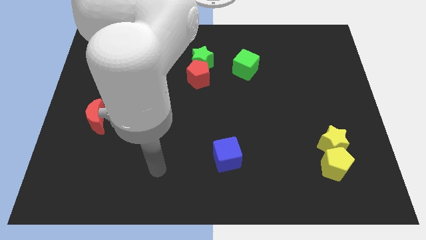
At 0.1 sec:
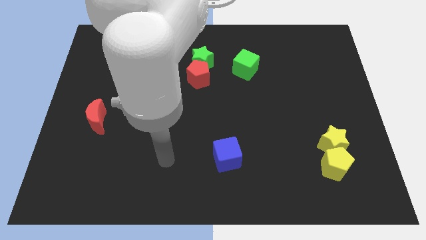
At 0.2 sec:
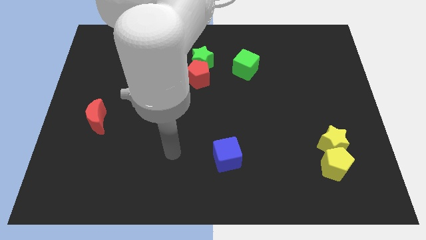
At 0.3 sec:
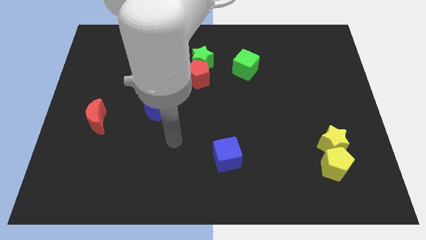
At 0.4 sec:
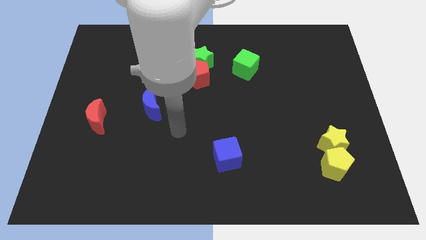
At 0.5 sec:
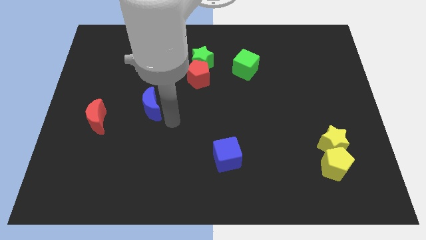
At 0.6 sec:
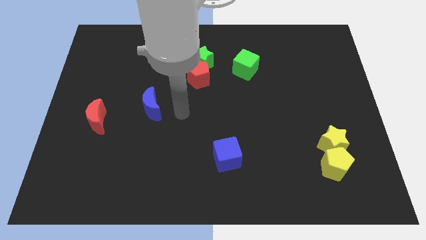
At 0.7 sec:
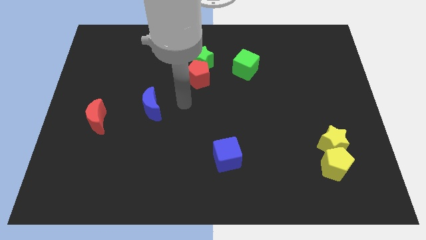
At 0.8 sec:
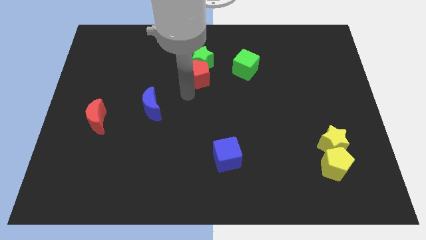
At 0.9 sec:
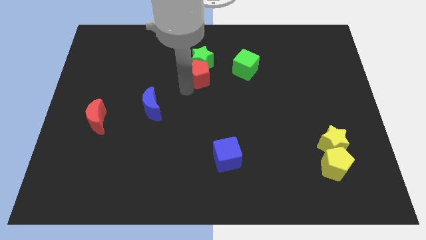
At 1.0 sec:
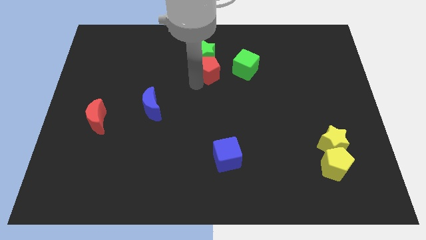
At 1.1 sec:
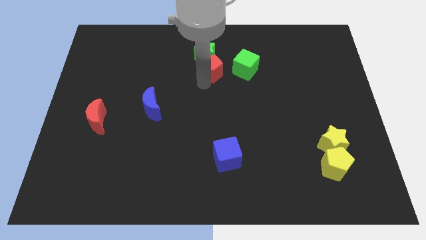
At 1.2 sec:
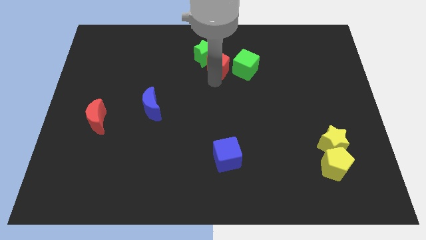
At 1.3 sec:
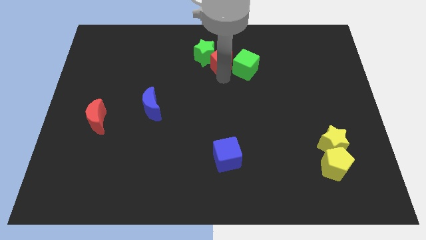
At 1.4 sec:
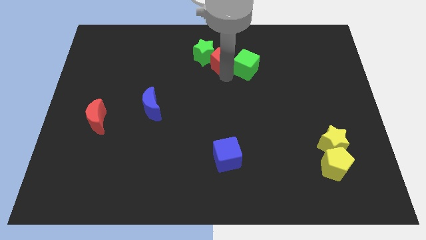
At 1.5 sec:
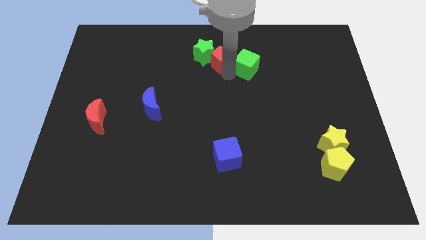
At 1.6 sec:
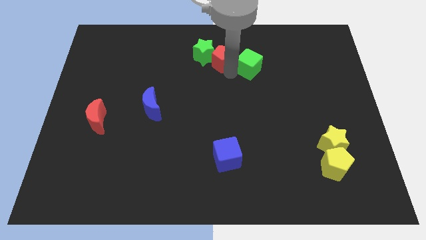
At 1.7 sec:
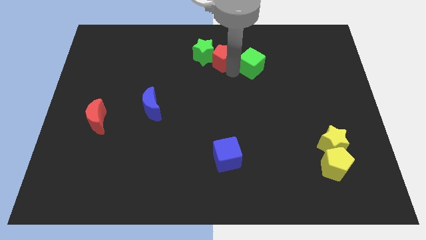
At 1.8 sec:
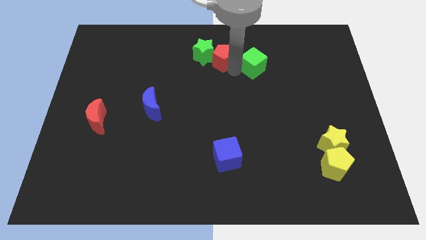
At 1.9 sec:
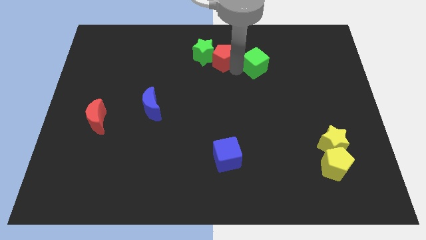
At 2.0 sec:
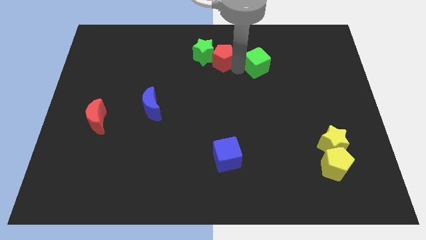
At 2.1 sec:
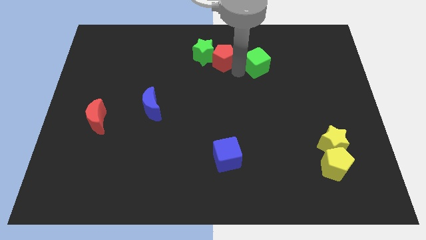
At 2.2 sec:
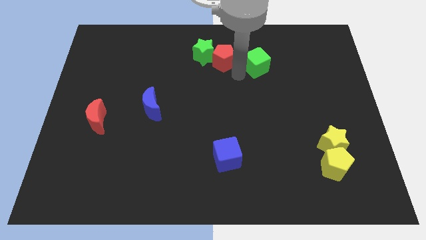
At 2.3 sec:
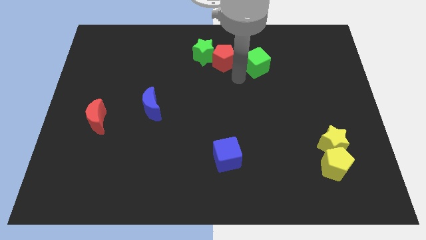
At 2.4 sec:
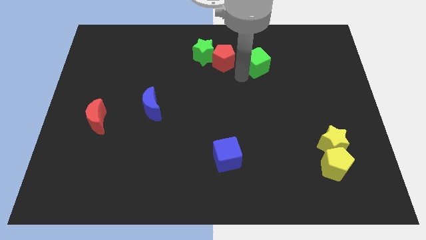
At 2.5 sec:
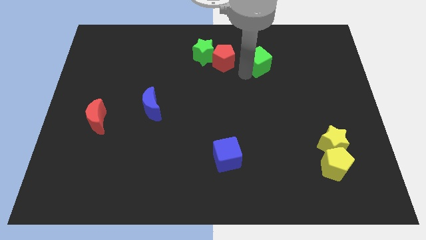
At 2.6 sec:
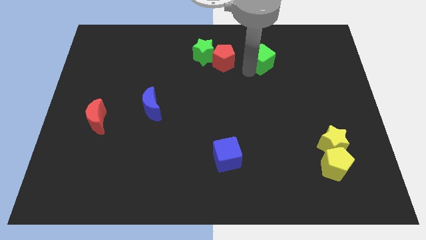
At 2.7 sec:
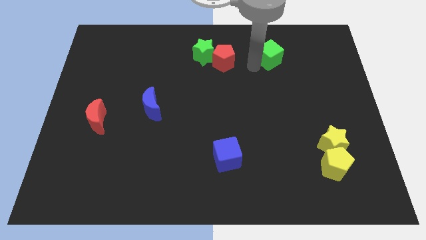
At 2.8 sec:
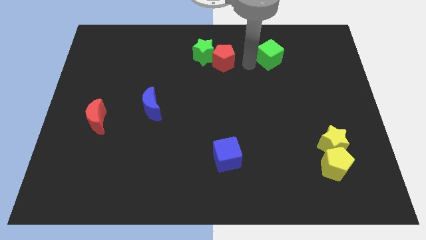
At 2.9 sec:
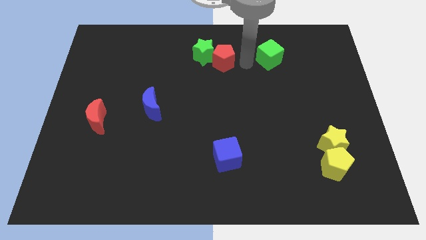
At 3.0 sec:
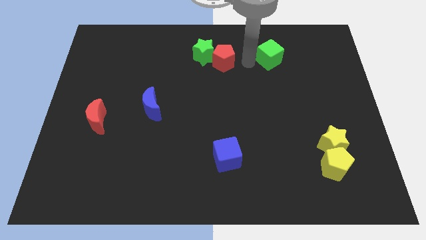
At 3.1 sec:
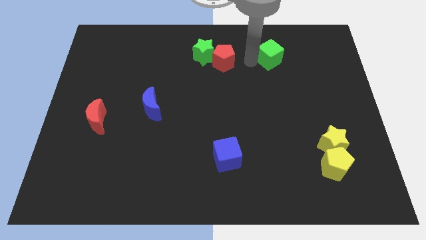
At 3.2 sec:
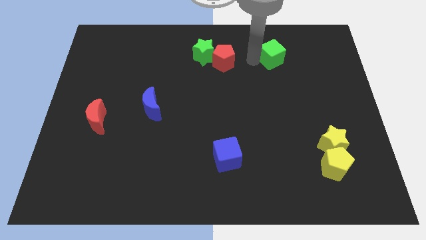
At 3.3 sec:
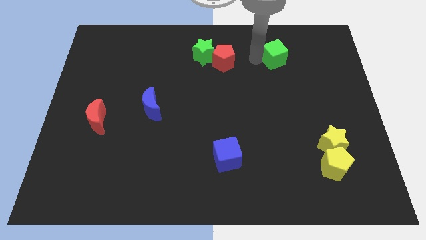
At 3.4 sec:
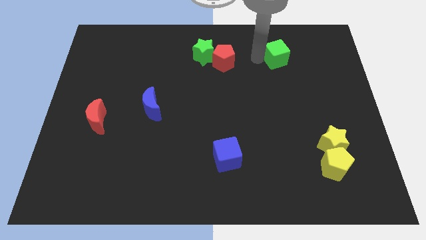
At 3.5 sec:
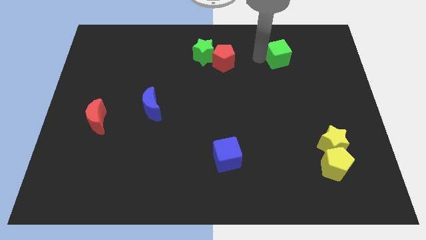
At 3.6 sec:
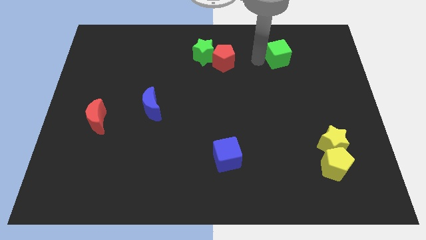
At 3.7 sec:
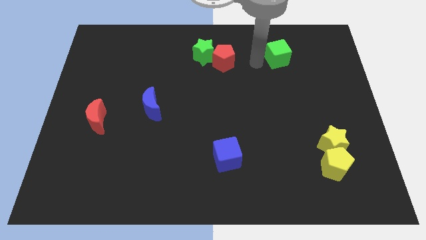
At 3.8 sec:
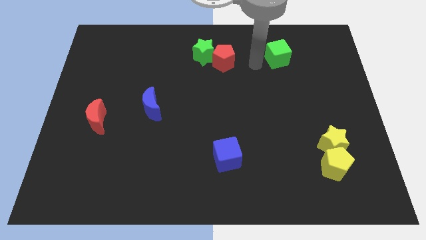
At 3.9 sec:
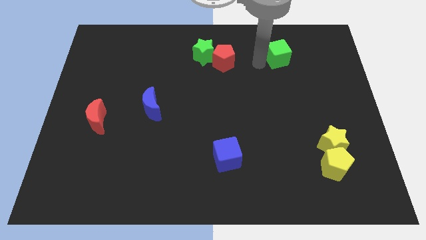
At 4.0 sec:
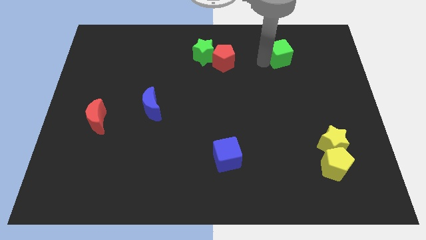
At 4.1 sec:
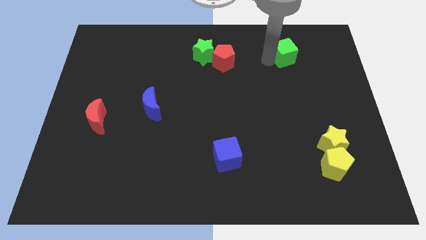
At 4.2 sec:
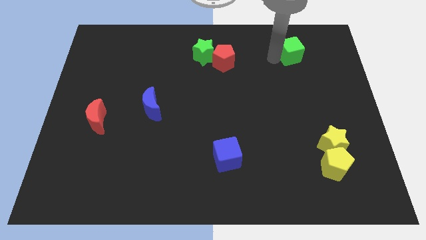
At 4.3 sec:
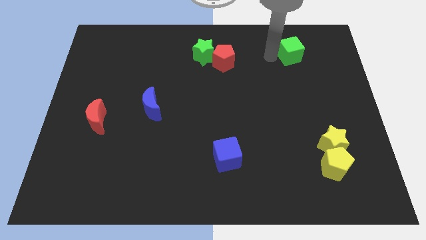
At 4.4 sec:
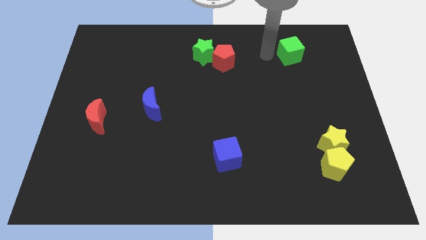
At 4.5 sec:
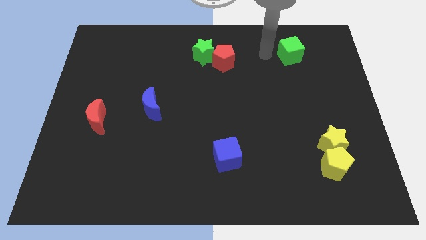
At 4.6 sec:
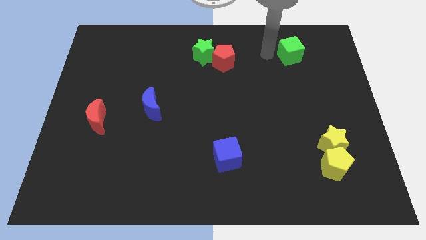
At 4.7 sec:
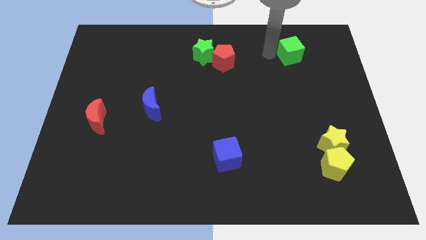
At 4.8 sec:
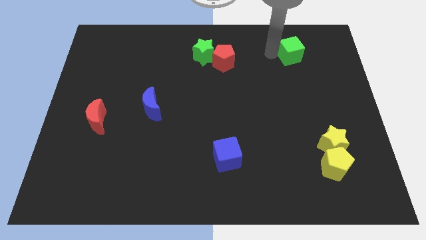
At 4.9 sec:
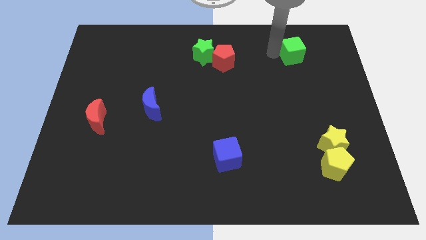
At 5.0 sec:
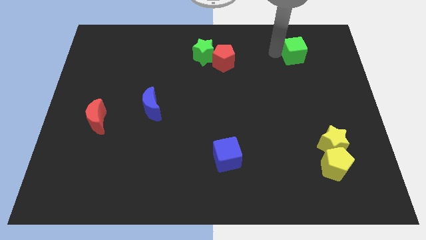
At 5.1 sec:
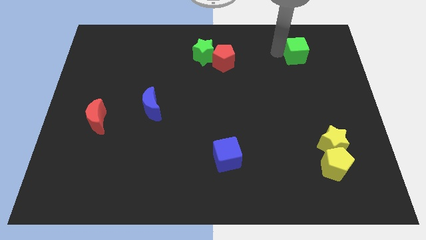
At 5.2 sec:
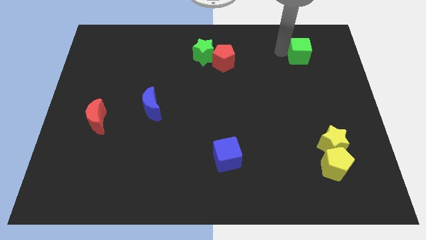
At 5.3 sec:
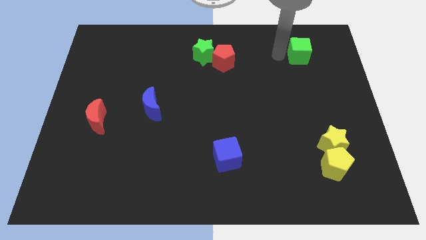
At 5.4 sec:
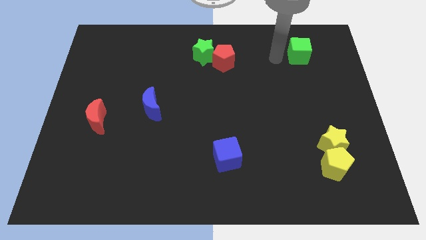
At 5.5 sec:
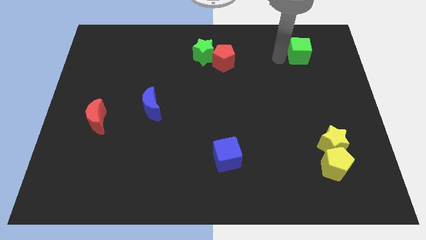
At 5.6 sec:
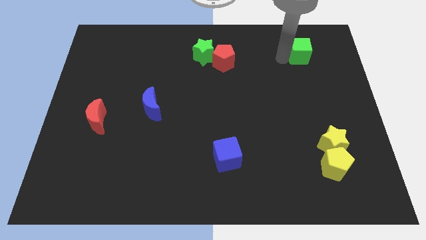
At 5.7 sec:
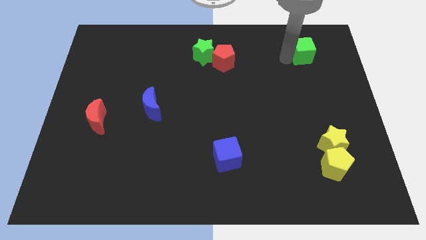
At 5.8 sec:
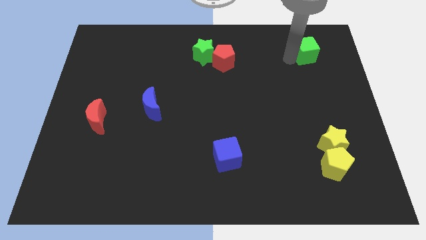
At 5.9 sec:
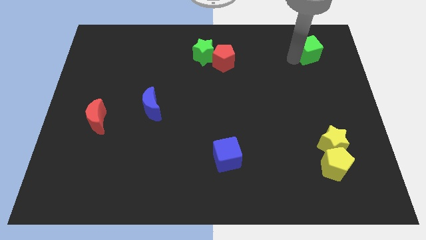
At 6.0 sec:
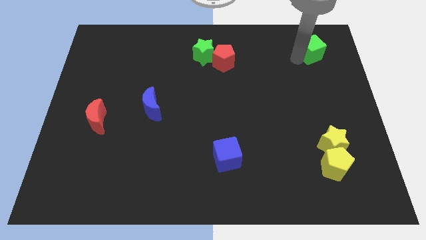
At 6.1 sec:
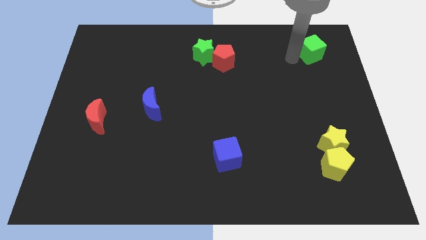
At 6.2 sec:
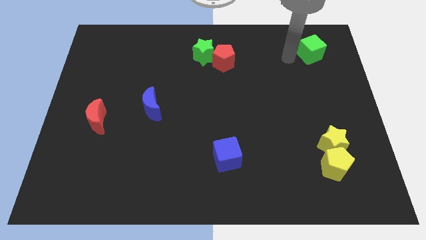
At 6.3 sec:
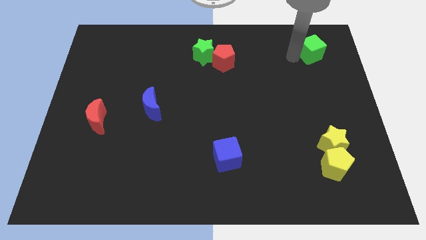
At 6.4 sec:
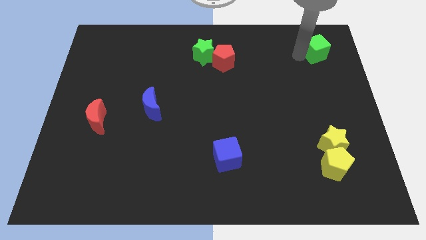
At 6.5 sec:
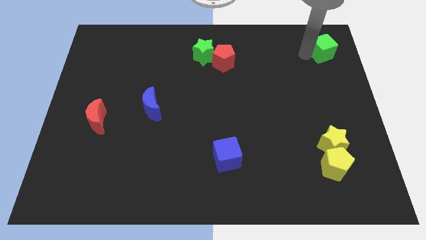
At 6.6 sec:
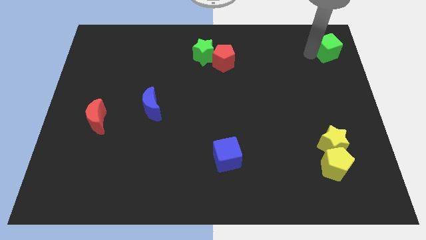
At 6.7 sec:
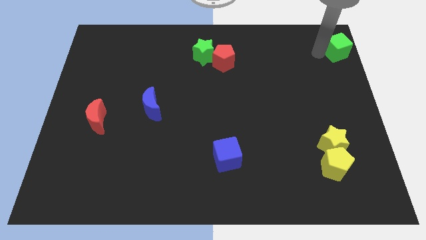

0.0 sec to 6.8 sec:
move the green cube to the top right

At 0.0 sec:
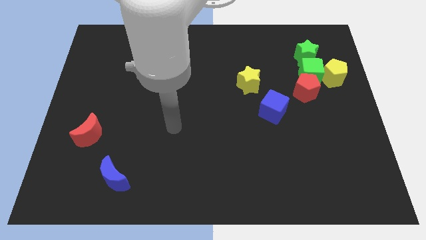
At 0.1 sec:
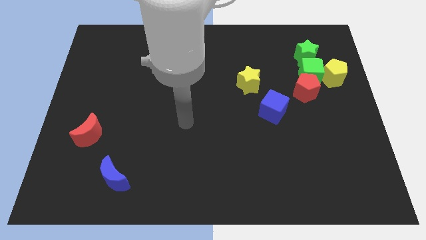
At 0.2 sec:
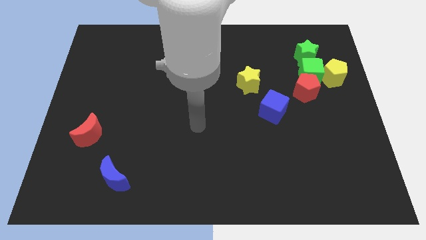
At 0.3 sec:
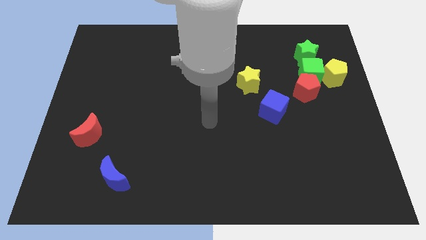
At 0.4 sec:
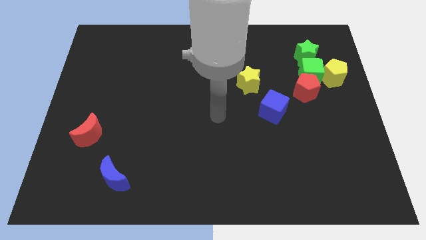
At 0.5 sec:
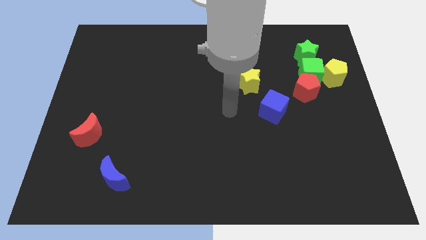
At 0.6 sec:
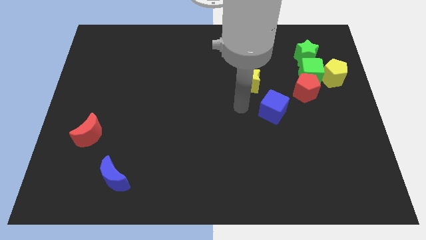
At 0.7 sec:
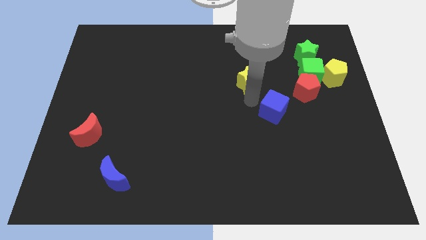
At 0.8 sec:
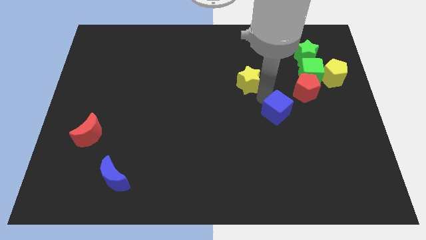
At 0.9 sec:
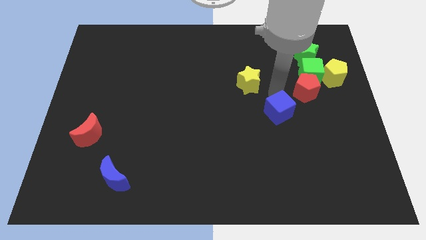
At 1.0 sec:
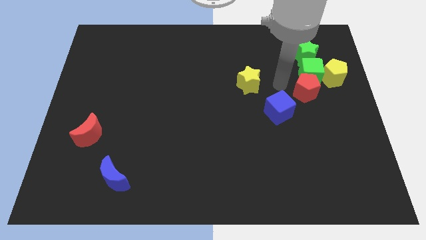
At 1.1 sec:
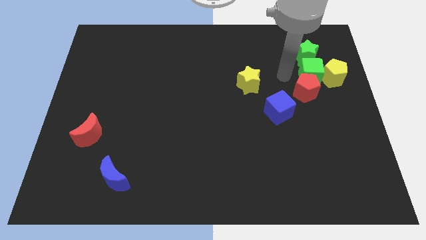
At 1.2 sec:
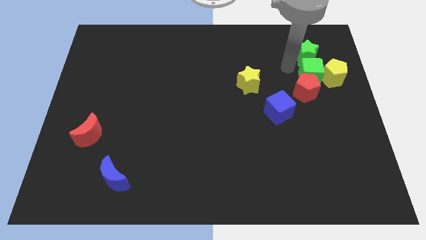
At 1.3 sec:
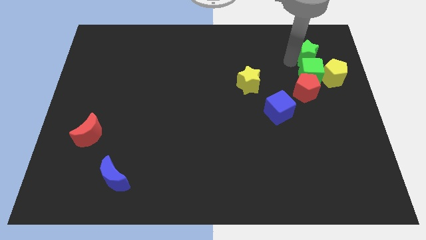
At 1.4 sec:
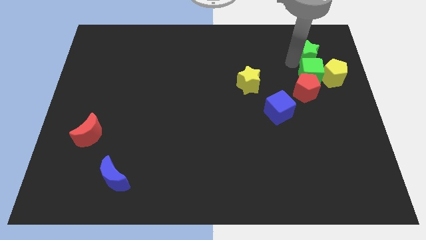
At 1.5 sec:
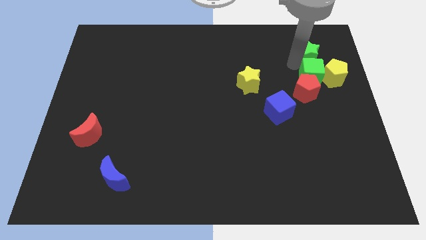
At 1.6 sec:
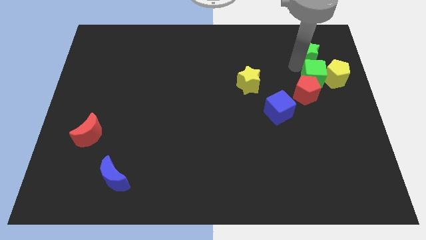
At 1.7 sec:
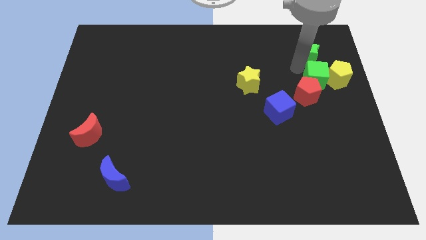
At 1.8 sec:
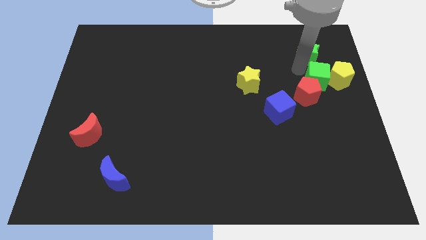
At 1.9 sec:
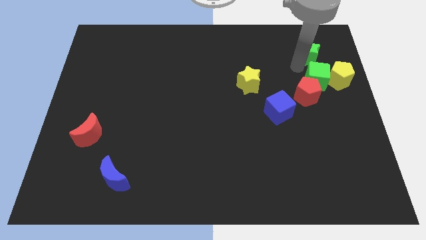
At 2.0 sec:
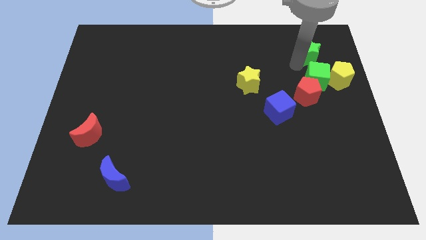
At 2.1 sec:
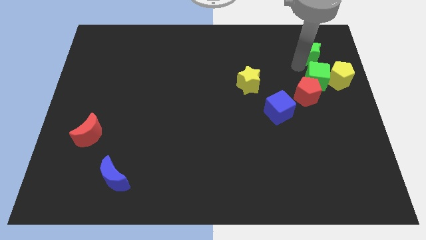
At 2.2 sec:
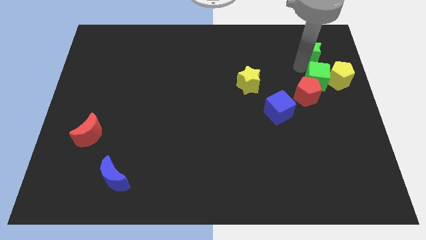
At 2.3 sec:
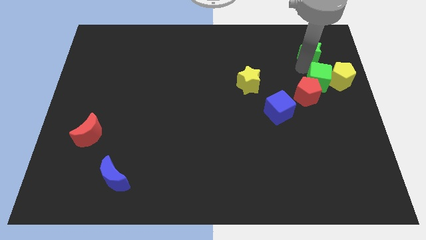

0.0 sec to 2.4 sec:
slide the green cube to the right side
